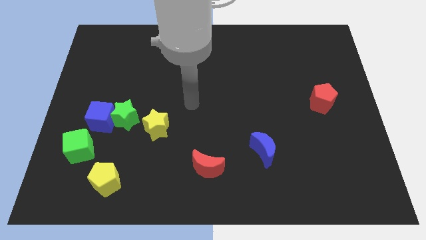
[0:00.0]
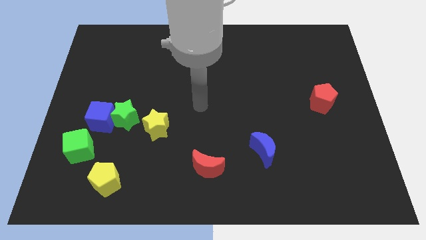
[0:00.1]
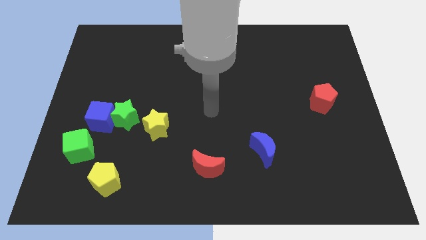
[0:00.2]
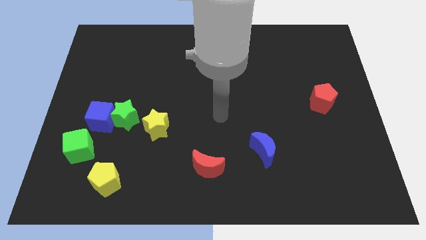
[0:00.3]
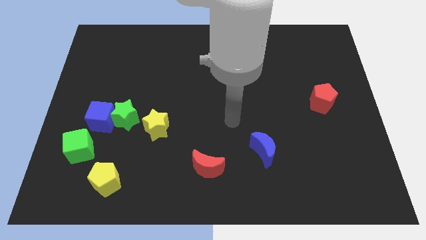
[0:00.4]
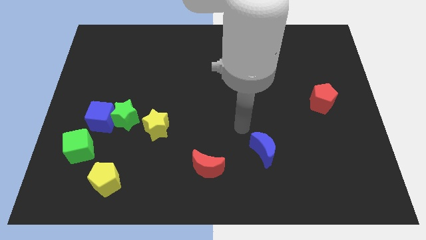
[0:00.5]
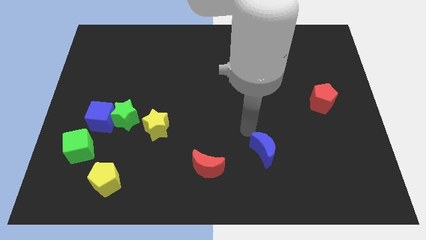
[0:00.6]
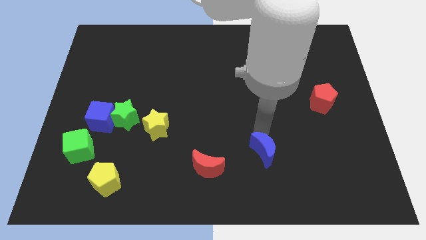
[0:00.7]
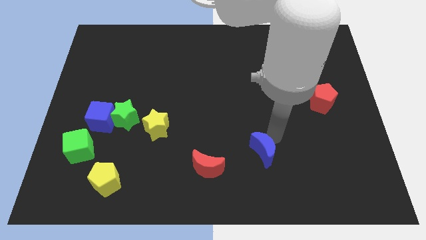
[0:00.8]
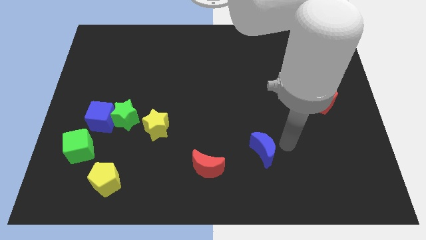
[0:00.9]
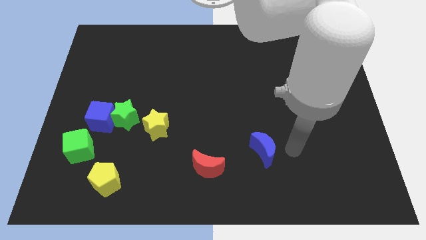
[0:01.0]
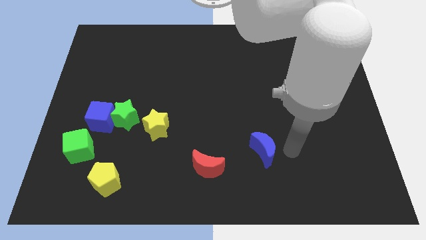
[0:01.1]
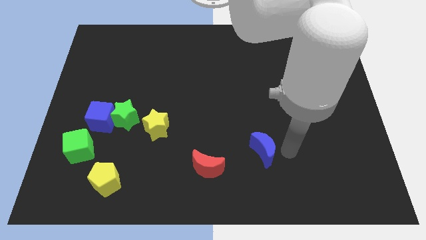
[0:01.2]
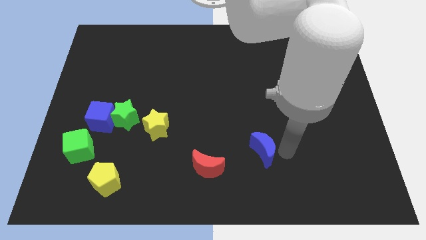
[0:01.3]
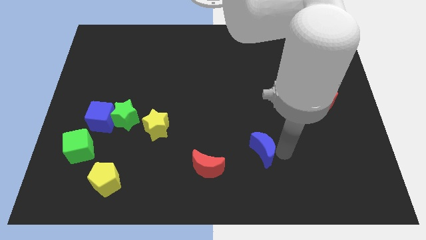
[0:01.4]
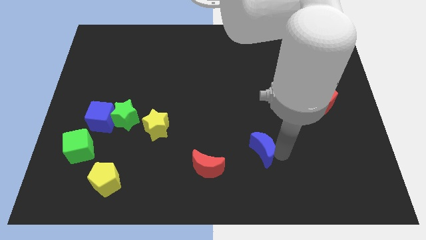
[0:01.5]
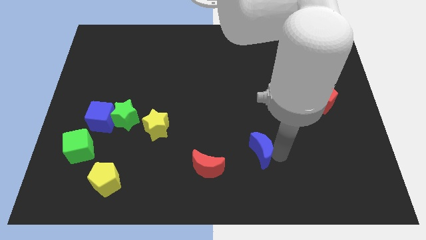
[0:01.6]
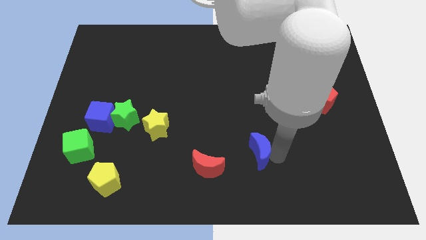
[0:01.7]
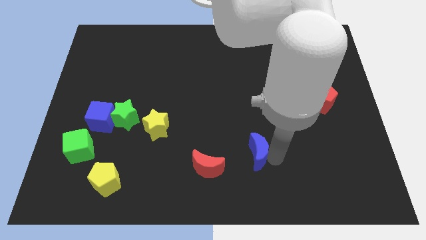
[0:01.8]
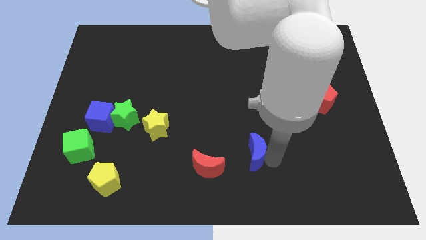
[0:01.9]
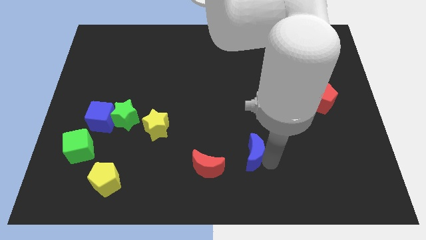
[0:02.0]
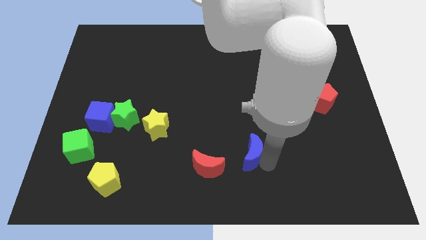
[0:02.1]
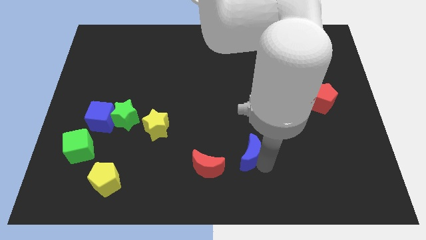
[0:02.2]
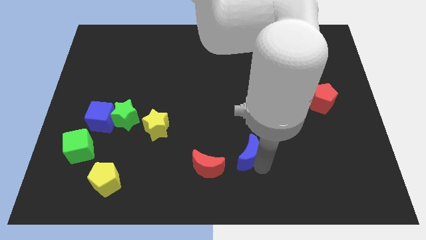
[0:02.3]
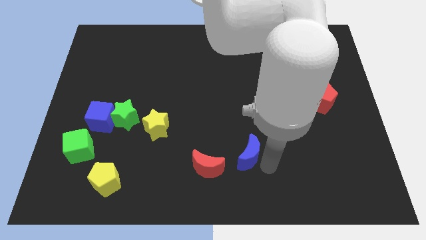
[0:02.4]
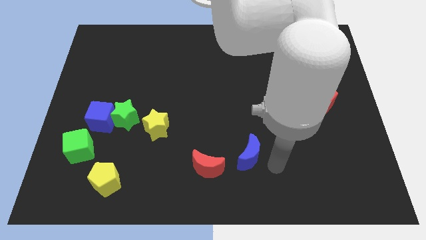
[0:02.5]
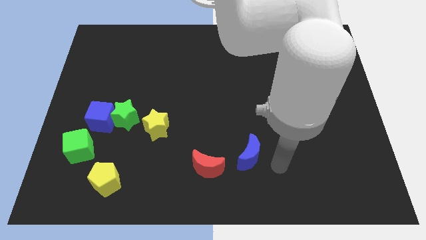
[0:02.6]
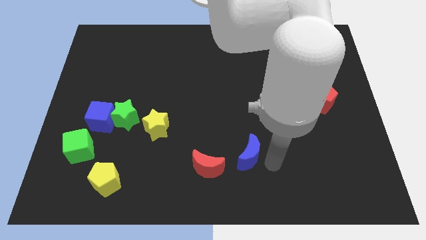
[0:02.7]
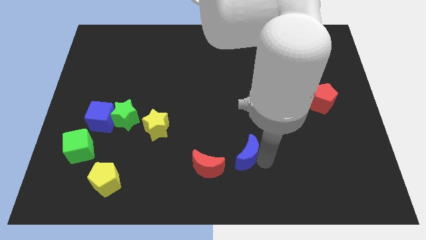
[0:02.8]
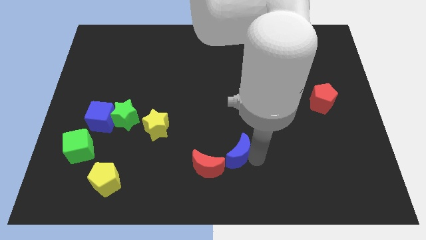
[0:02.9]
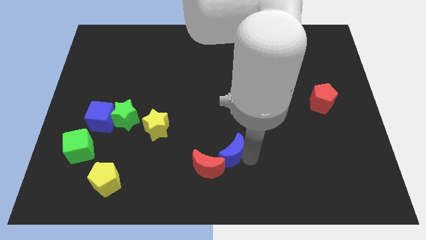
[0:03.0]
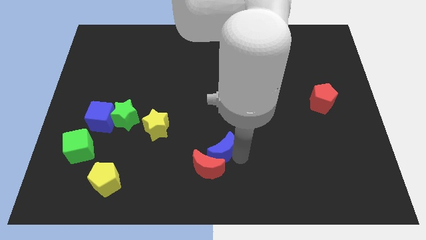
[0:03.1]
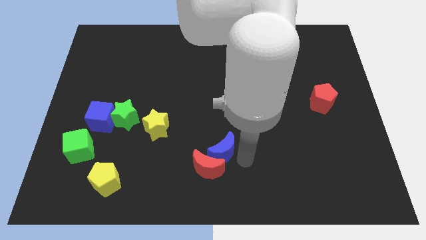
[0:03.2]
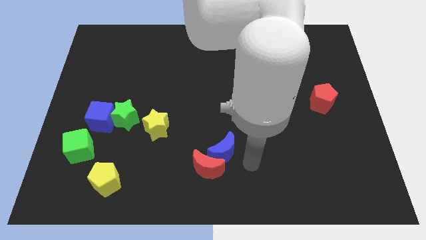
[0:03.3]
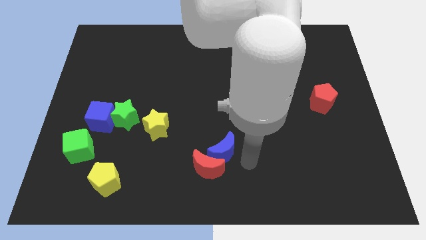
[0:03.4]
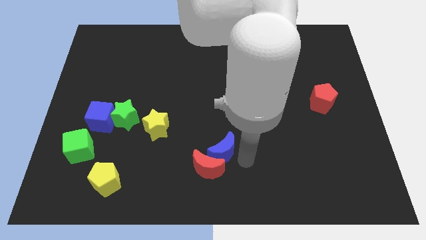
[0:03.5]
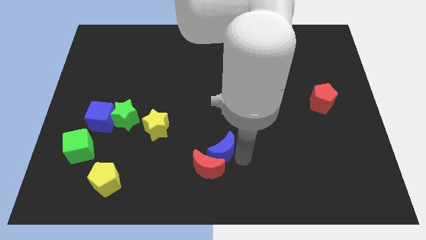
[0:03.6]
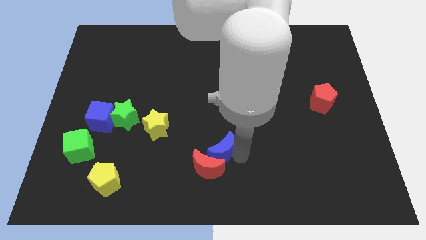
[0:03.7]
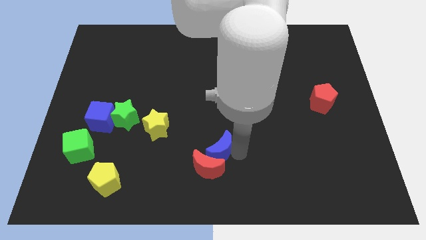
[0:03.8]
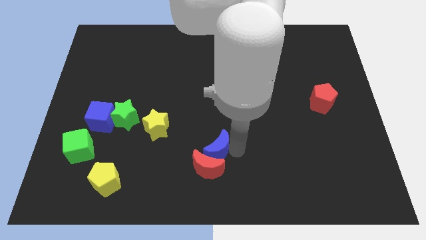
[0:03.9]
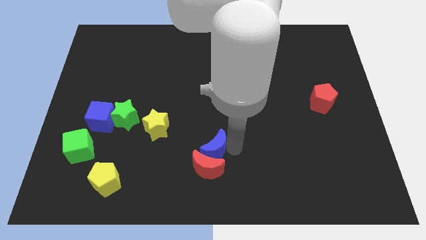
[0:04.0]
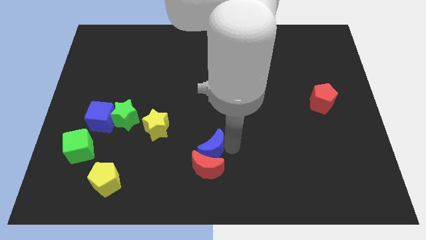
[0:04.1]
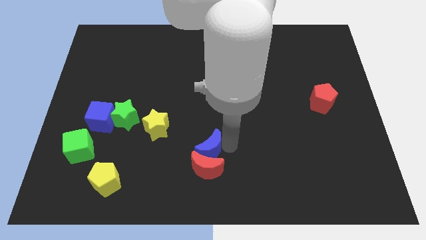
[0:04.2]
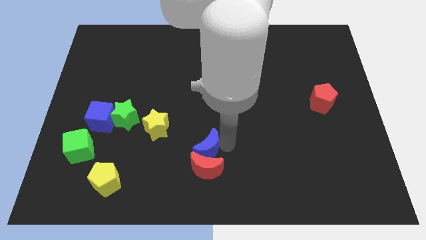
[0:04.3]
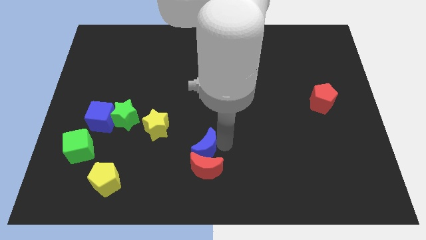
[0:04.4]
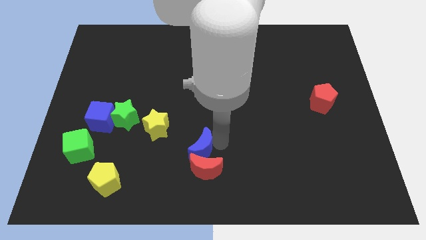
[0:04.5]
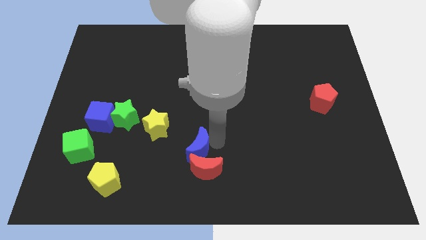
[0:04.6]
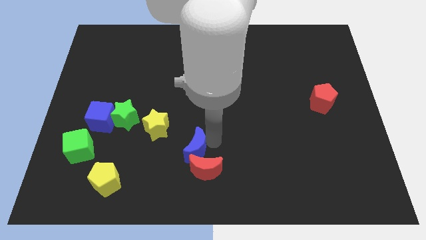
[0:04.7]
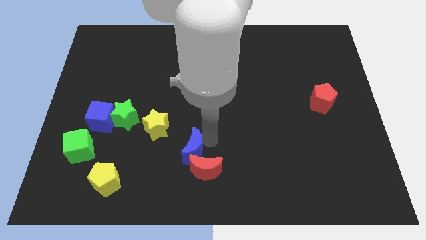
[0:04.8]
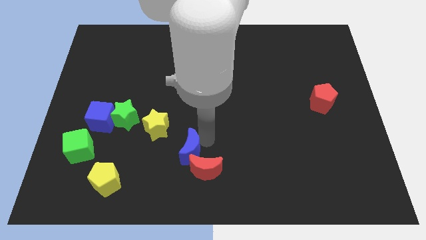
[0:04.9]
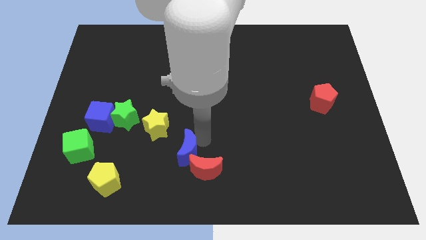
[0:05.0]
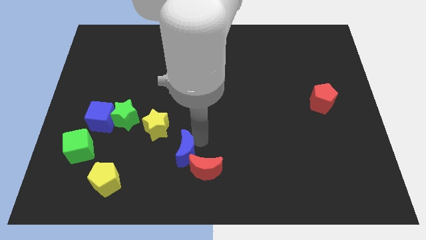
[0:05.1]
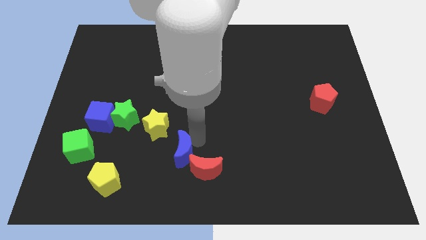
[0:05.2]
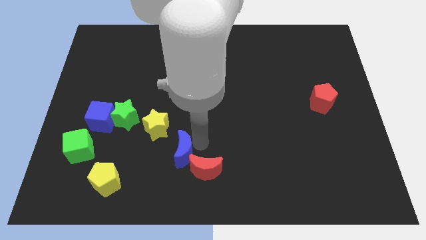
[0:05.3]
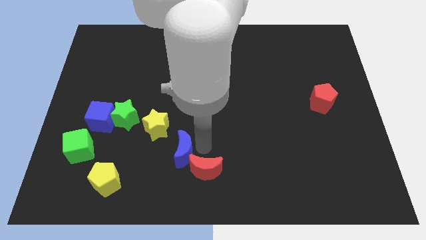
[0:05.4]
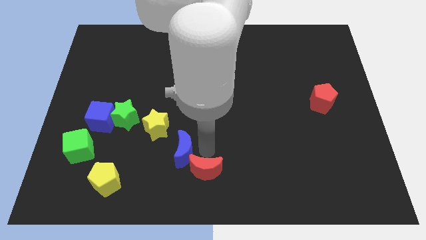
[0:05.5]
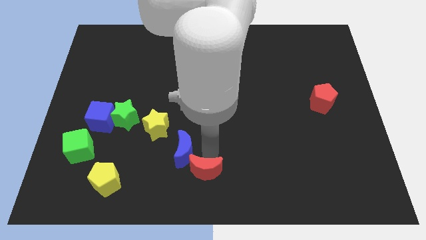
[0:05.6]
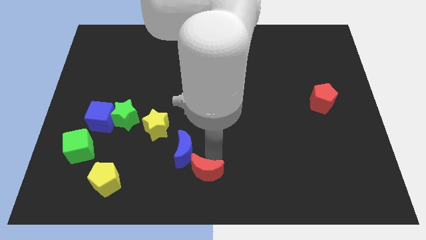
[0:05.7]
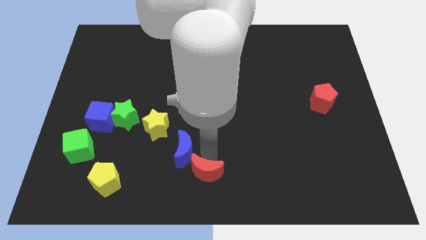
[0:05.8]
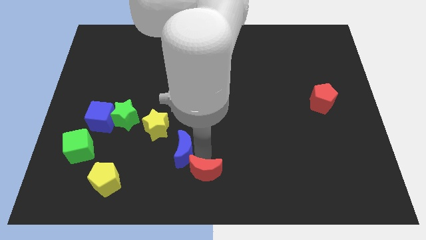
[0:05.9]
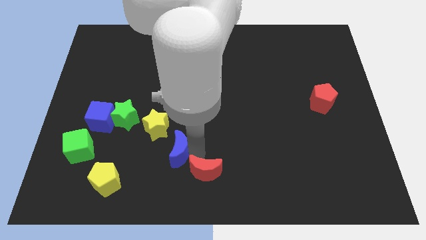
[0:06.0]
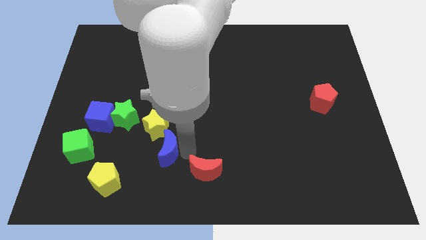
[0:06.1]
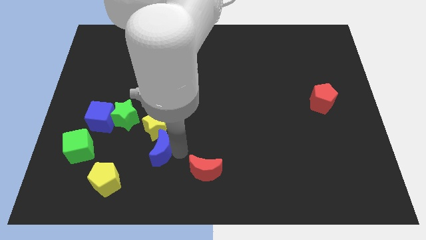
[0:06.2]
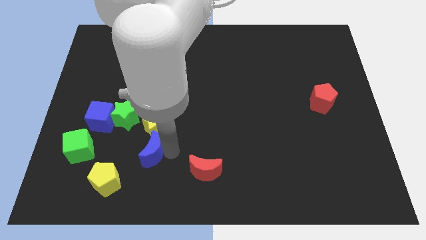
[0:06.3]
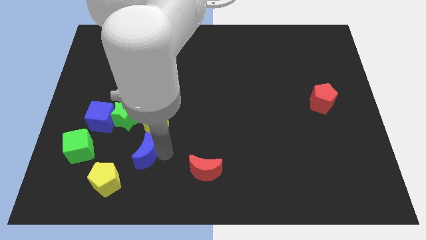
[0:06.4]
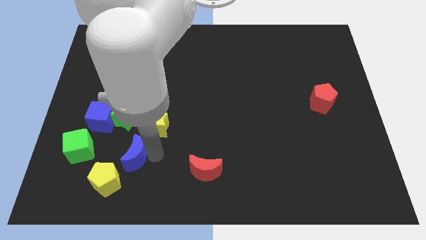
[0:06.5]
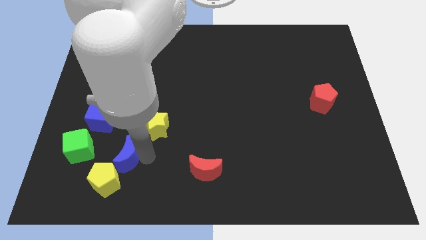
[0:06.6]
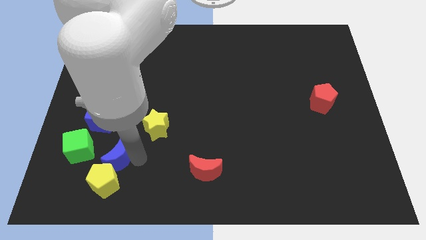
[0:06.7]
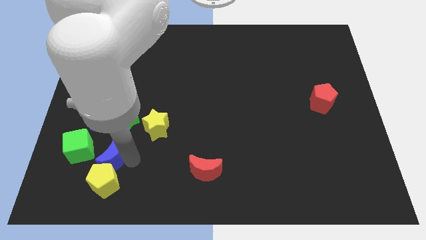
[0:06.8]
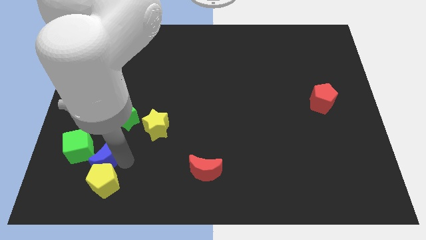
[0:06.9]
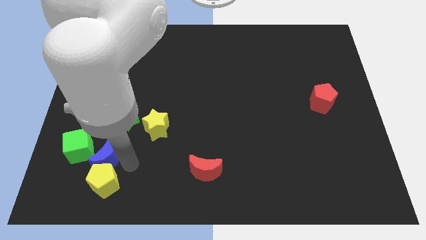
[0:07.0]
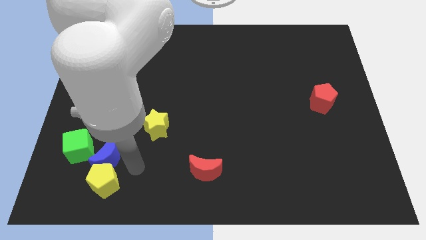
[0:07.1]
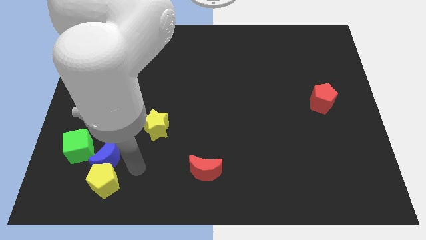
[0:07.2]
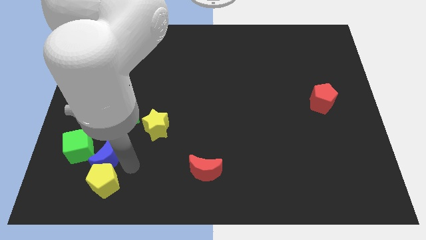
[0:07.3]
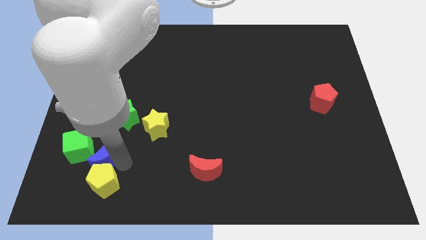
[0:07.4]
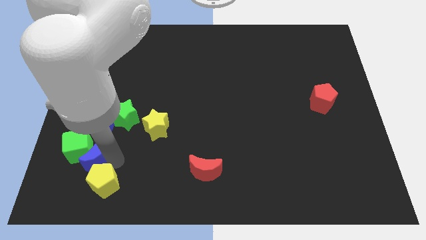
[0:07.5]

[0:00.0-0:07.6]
move the blue moon to the green cube

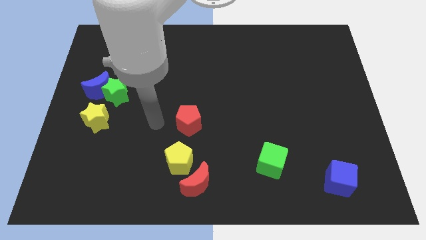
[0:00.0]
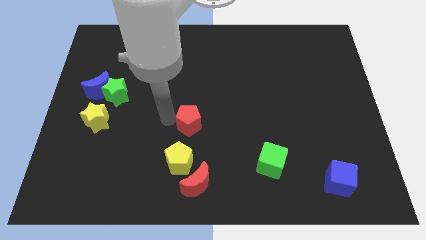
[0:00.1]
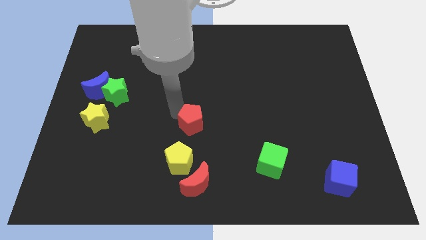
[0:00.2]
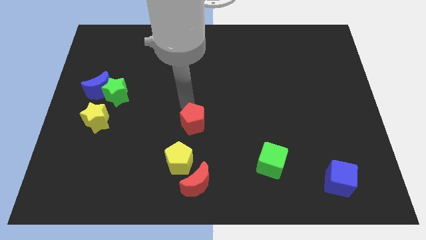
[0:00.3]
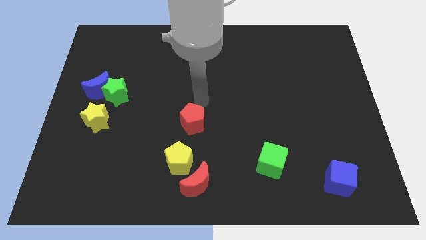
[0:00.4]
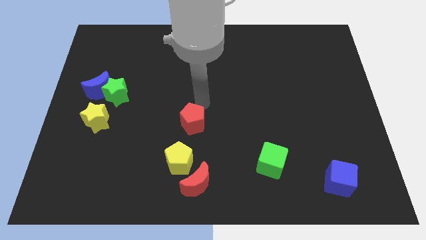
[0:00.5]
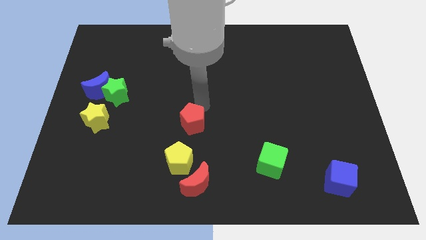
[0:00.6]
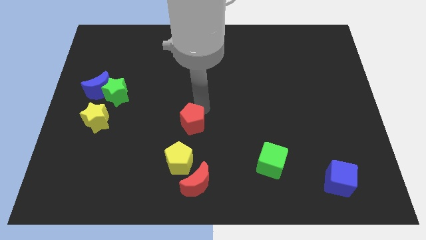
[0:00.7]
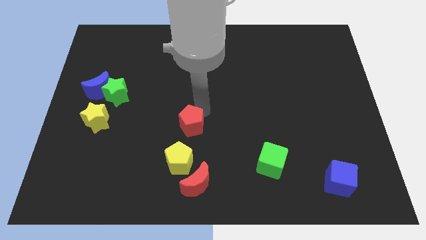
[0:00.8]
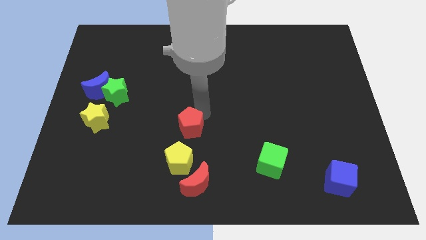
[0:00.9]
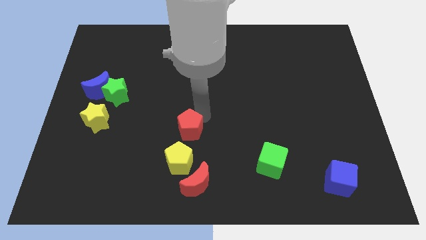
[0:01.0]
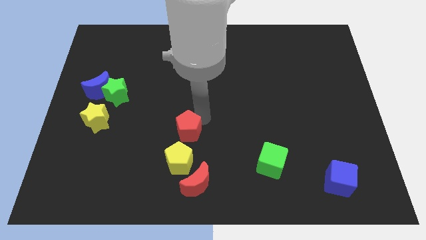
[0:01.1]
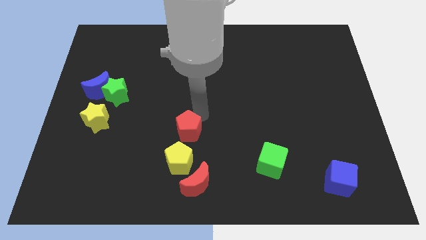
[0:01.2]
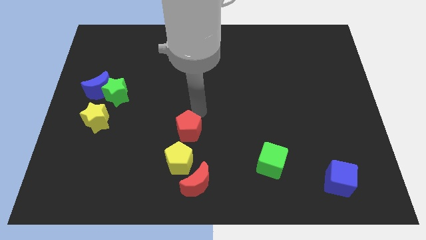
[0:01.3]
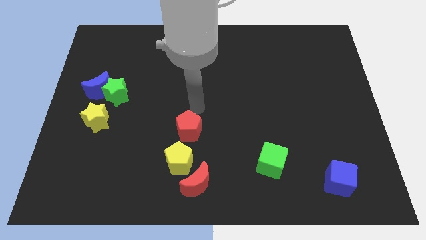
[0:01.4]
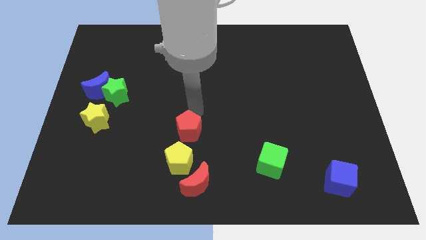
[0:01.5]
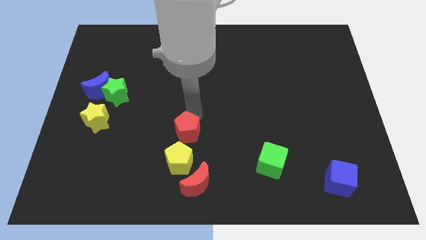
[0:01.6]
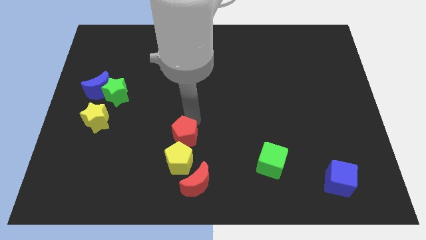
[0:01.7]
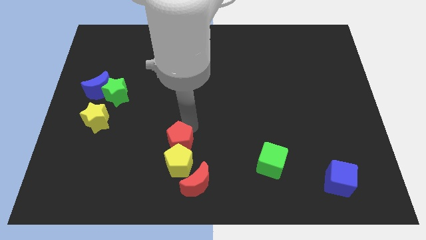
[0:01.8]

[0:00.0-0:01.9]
move the red pentagon towards the yellow pentagon
